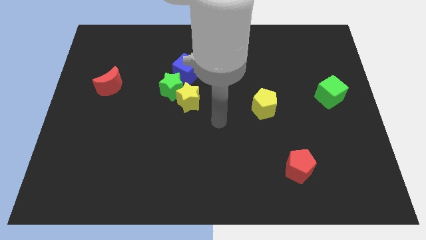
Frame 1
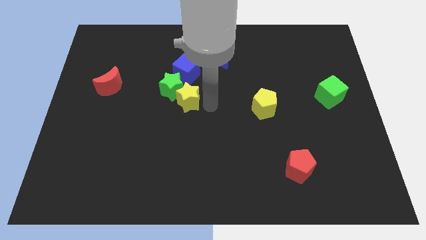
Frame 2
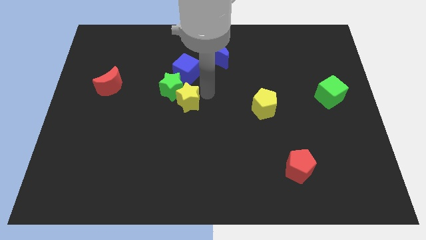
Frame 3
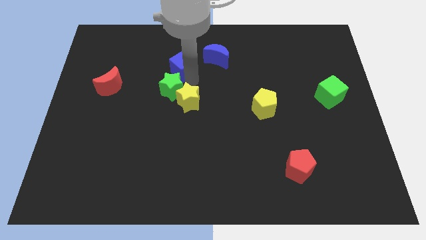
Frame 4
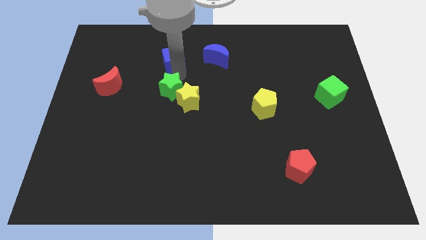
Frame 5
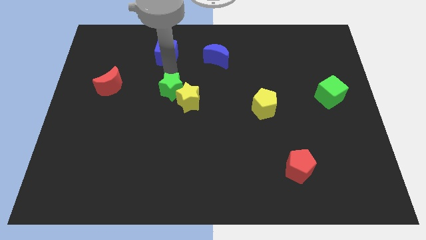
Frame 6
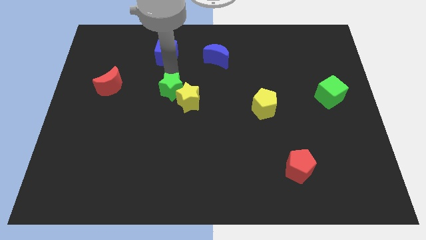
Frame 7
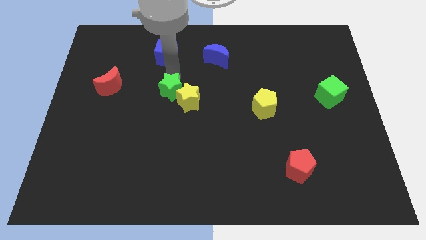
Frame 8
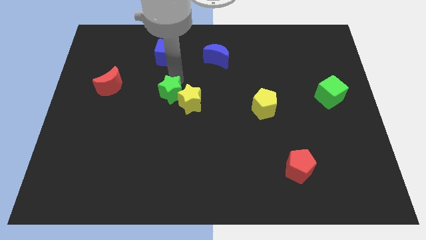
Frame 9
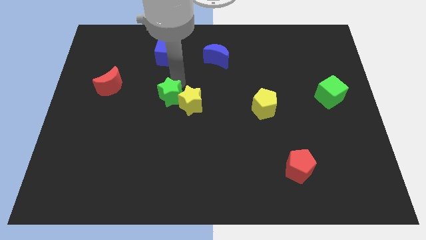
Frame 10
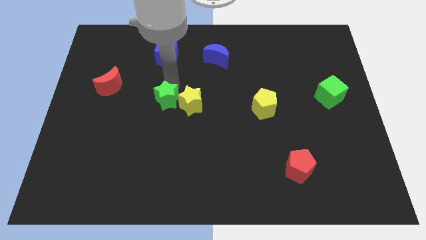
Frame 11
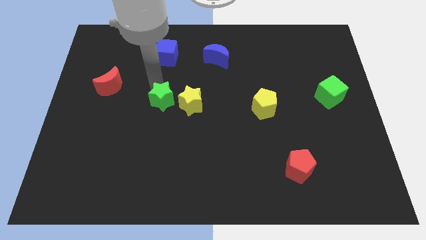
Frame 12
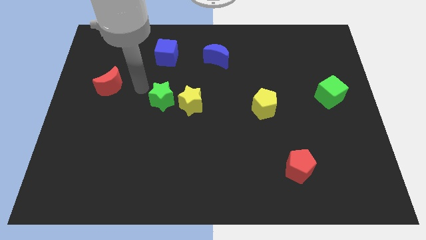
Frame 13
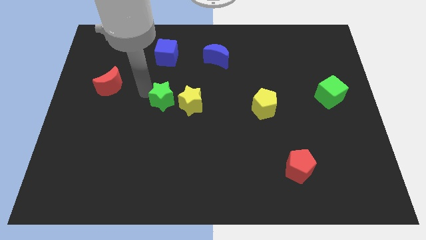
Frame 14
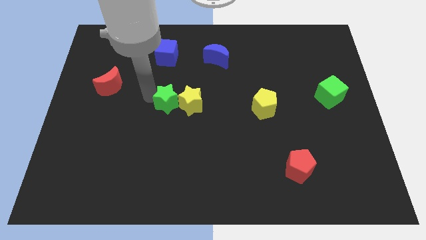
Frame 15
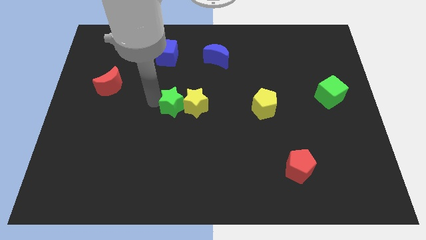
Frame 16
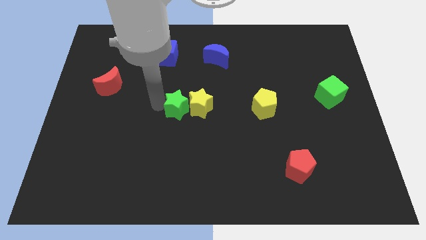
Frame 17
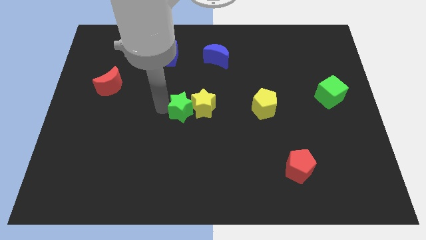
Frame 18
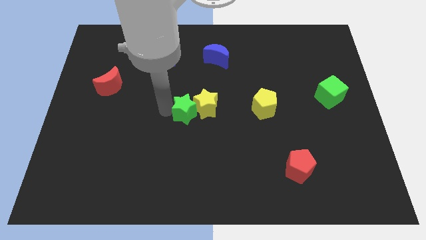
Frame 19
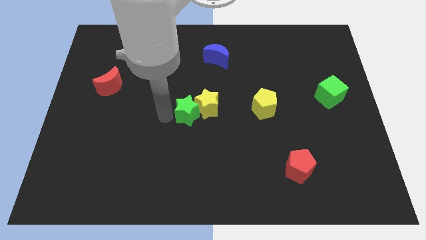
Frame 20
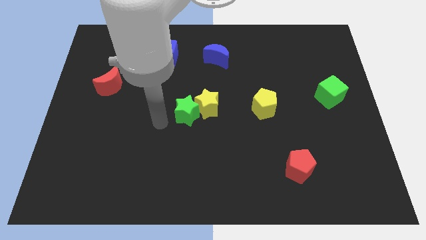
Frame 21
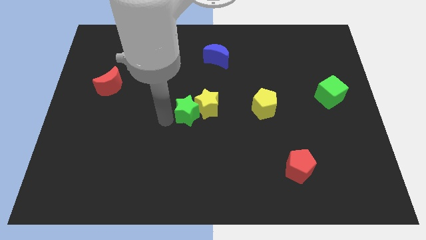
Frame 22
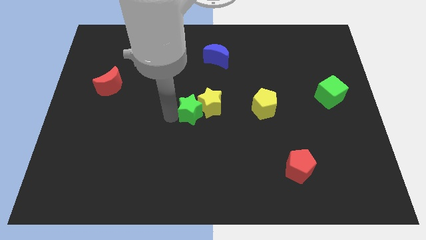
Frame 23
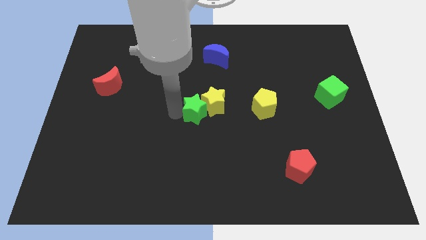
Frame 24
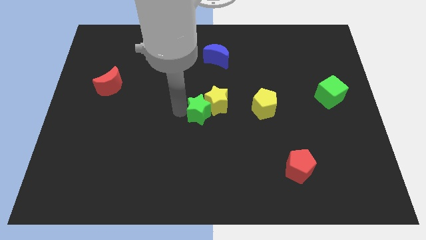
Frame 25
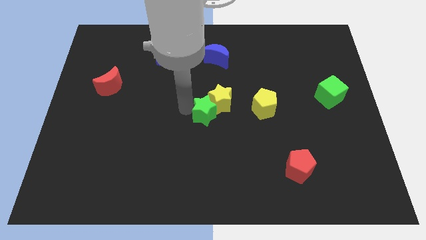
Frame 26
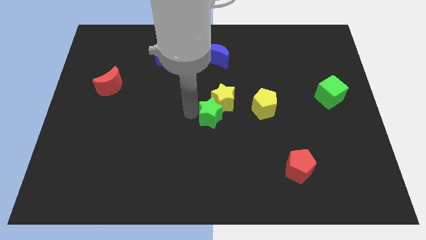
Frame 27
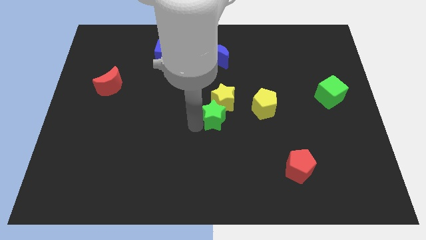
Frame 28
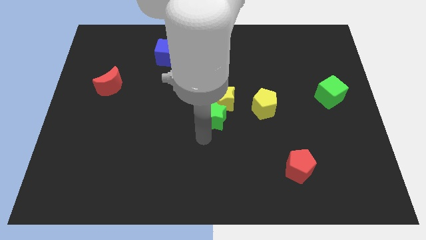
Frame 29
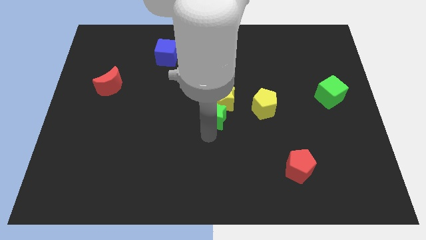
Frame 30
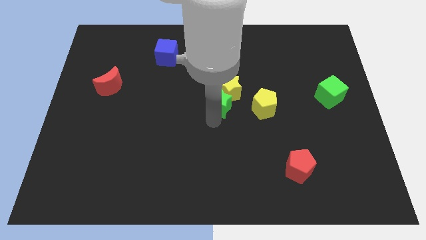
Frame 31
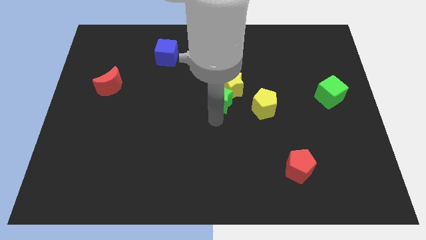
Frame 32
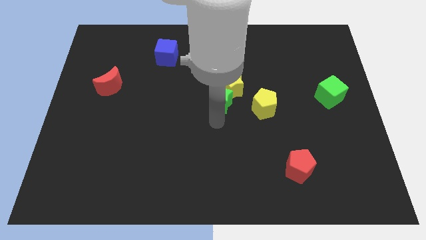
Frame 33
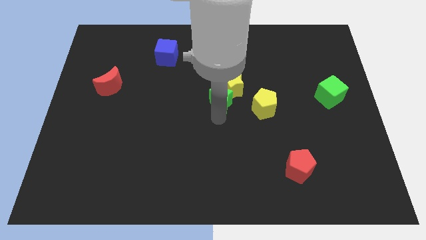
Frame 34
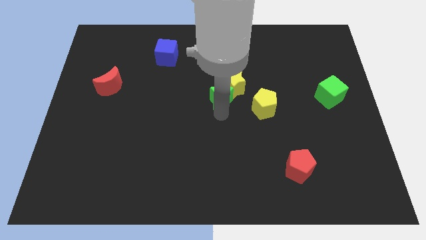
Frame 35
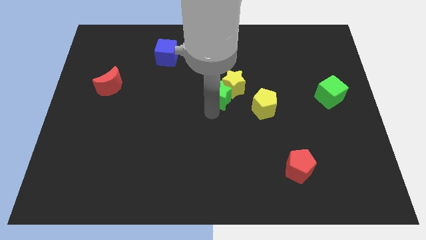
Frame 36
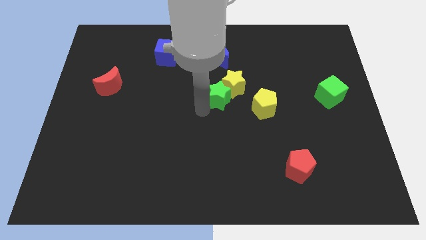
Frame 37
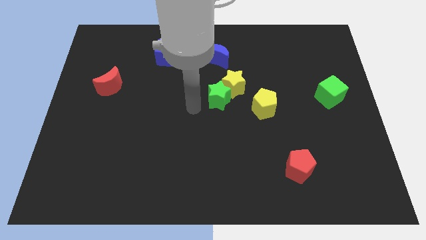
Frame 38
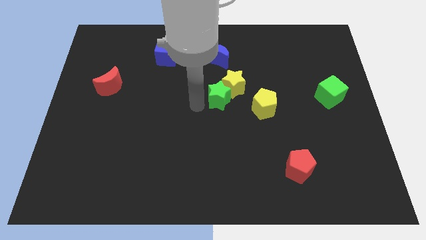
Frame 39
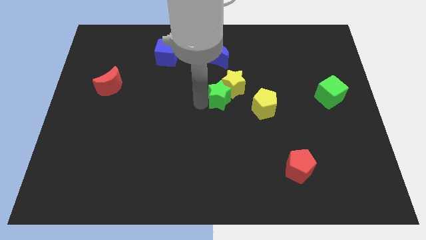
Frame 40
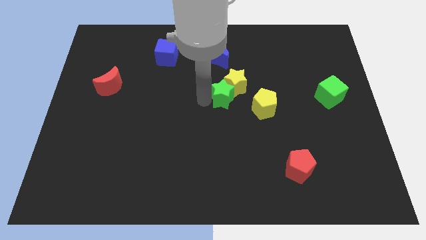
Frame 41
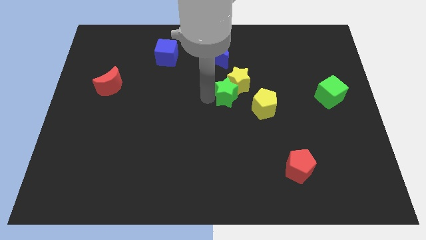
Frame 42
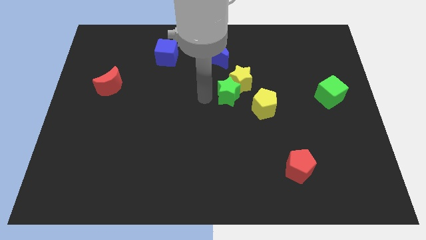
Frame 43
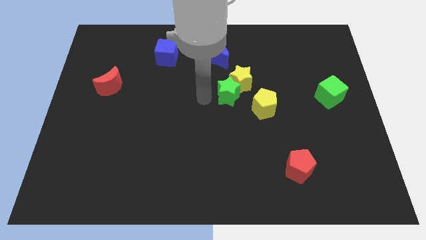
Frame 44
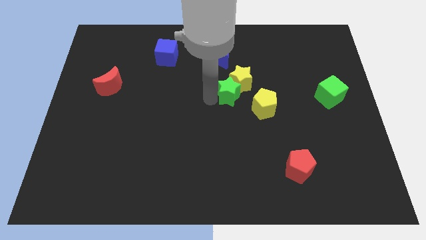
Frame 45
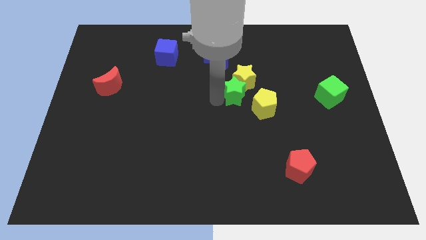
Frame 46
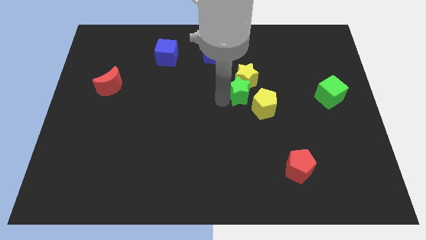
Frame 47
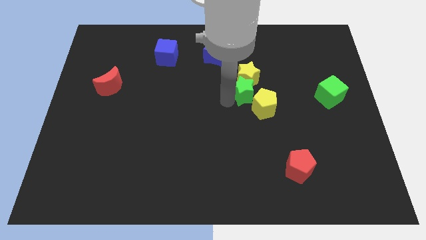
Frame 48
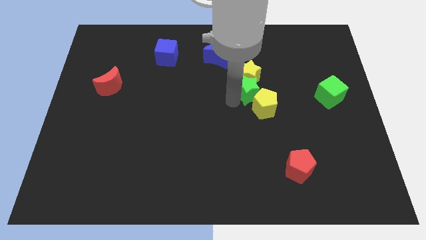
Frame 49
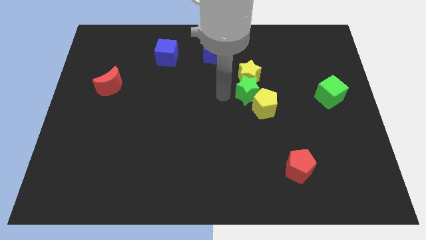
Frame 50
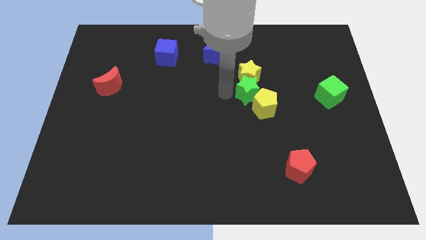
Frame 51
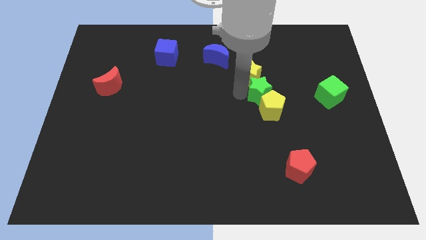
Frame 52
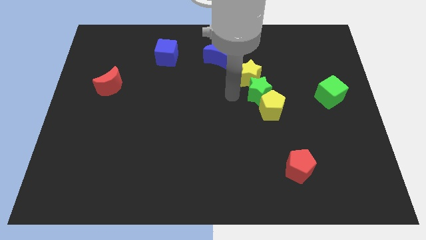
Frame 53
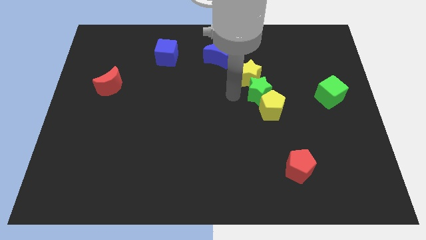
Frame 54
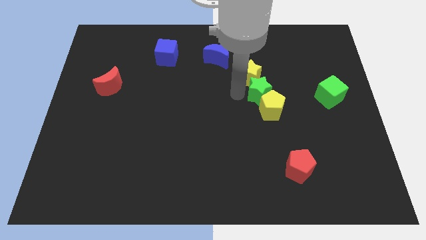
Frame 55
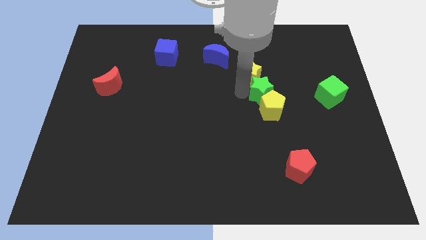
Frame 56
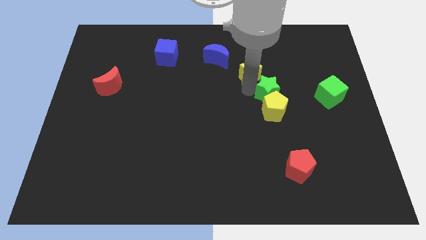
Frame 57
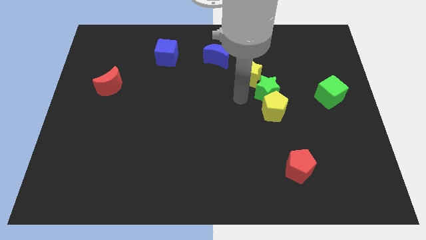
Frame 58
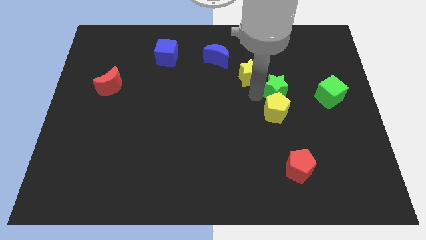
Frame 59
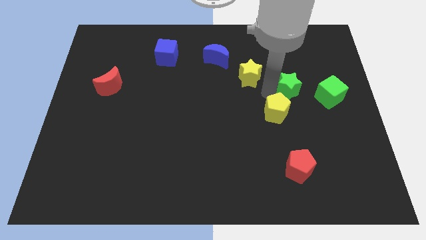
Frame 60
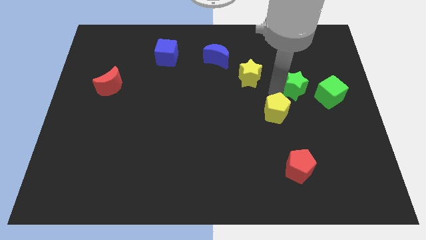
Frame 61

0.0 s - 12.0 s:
push the green star to the top left of the green cube
